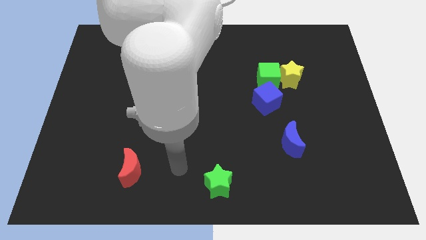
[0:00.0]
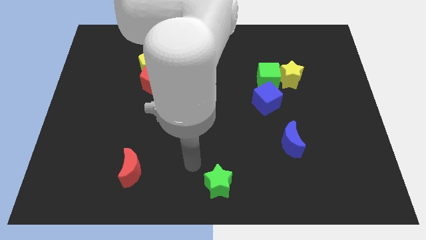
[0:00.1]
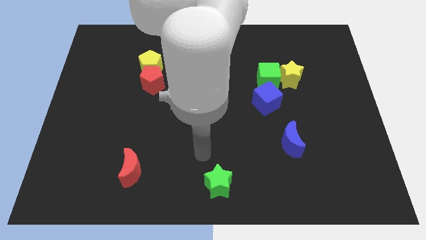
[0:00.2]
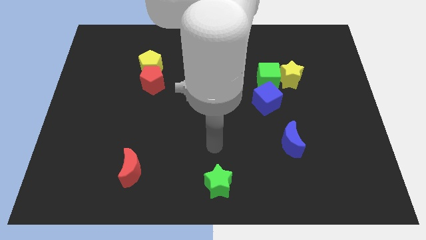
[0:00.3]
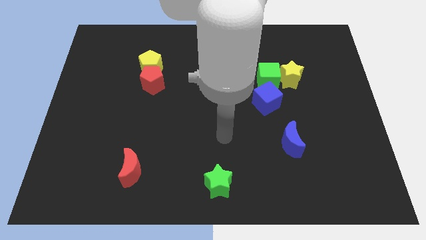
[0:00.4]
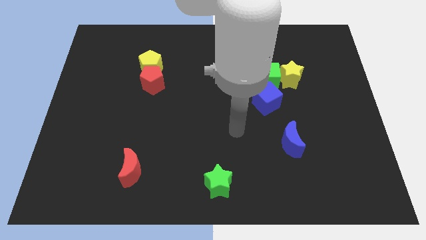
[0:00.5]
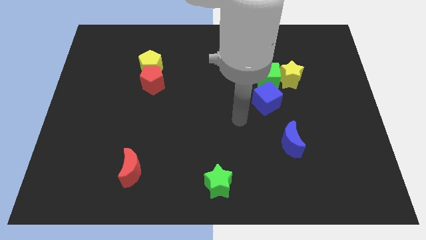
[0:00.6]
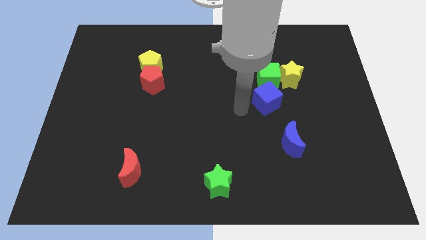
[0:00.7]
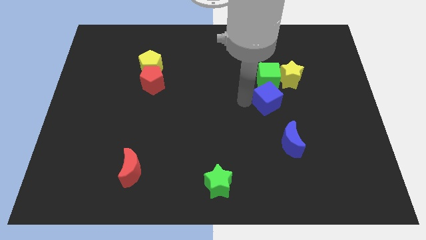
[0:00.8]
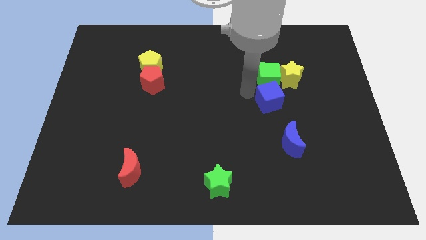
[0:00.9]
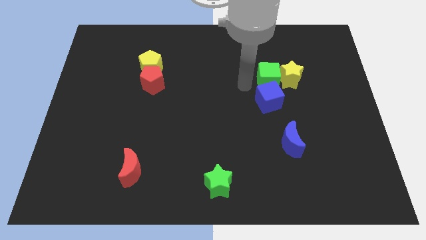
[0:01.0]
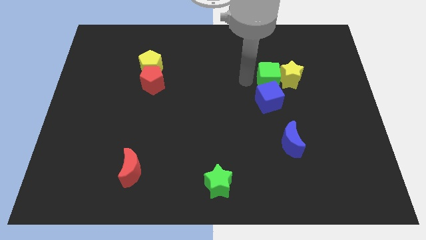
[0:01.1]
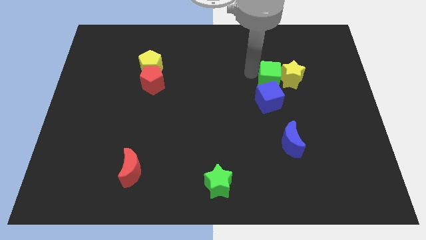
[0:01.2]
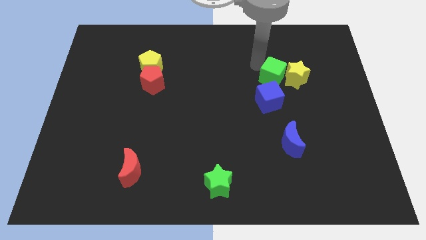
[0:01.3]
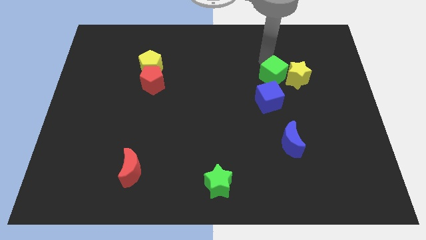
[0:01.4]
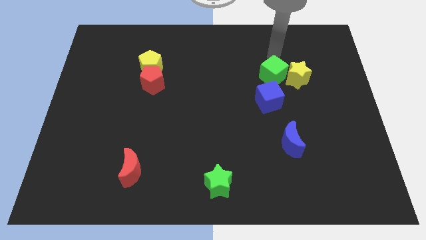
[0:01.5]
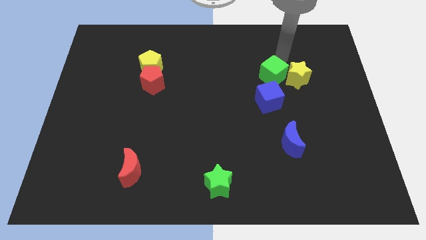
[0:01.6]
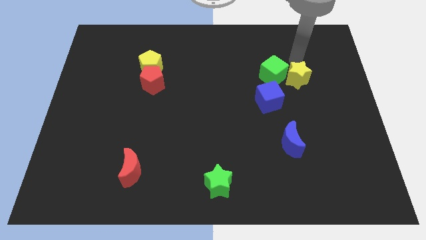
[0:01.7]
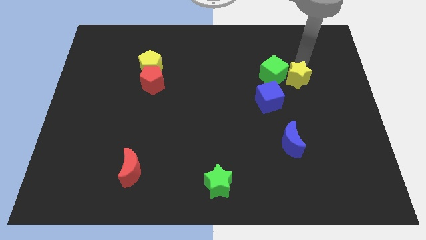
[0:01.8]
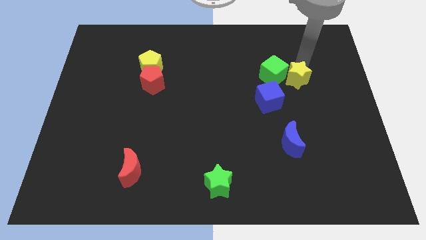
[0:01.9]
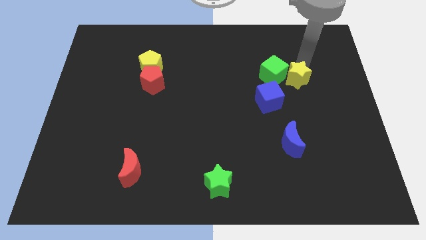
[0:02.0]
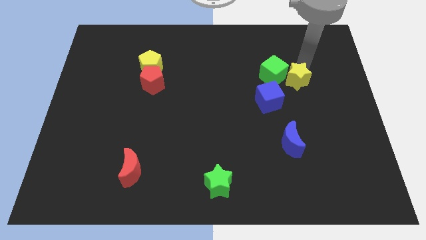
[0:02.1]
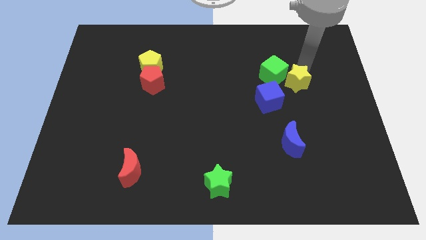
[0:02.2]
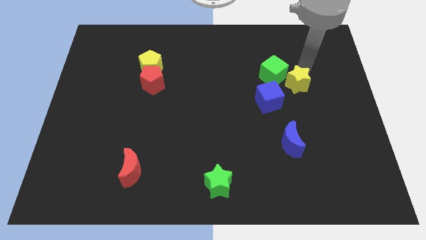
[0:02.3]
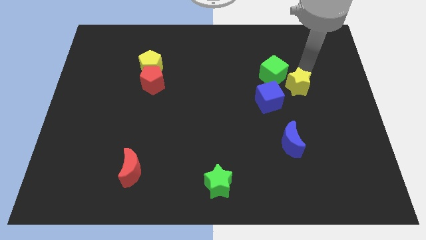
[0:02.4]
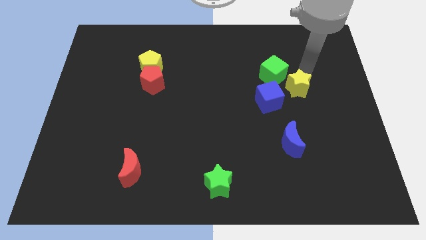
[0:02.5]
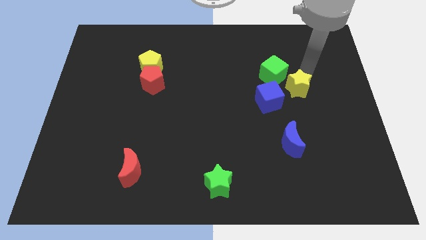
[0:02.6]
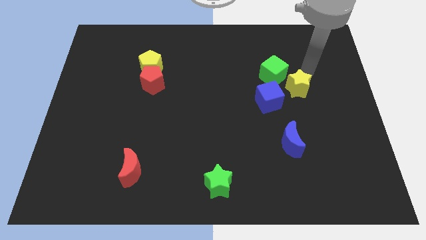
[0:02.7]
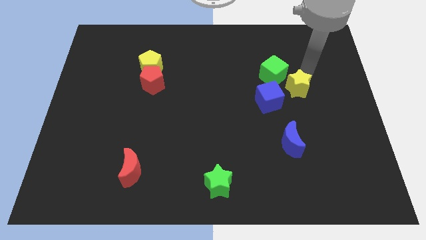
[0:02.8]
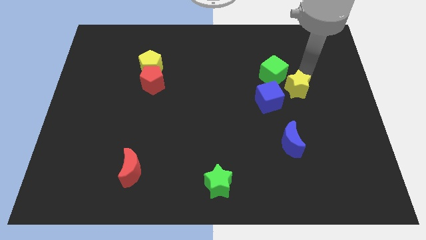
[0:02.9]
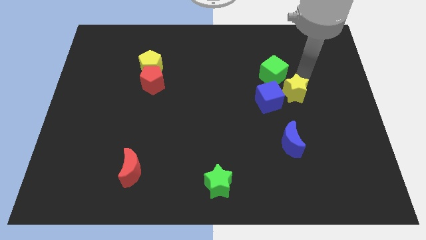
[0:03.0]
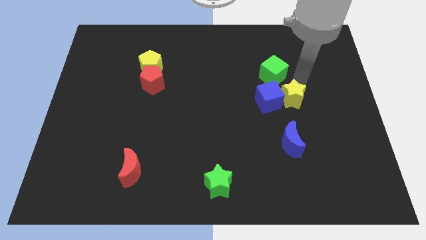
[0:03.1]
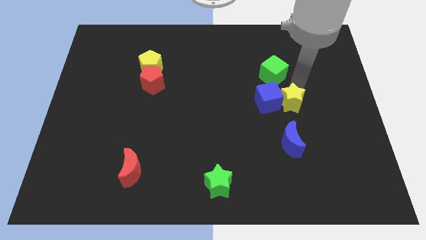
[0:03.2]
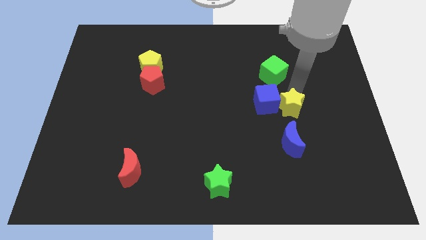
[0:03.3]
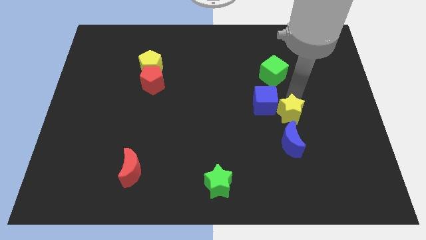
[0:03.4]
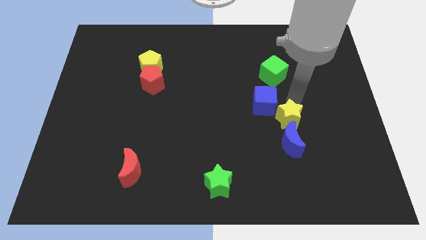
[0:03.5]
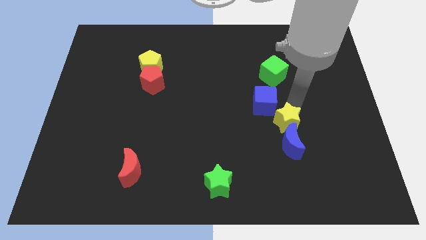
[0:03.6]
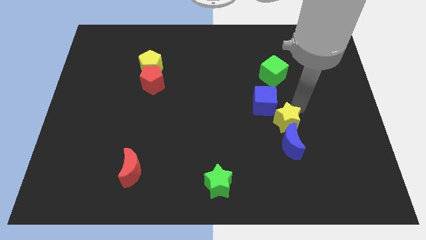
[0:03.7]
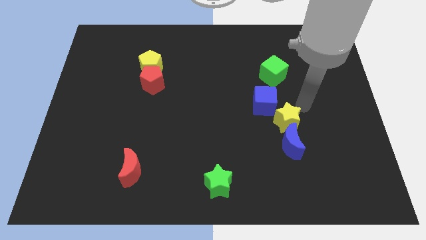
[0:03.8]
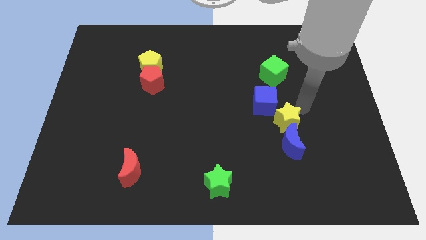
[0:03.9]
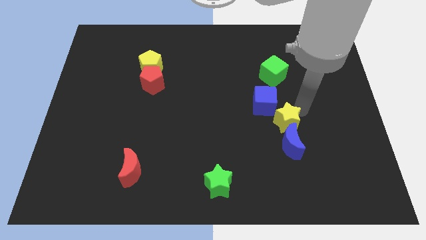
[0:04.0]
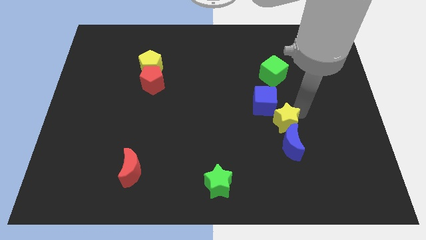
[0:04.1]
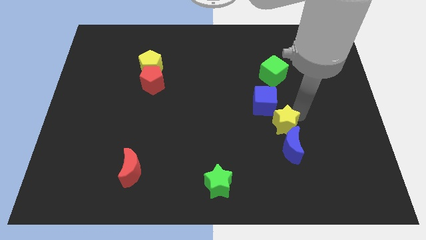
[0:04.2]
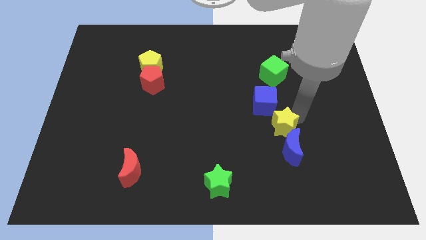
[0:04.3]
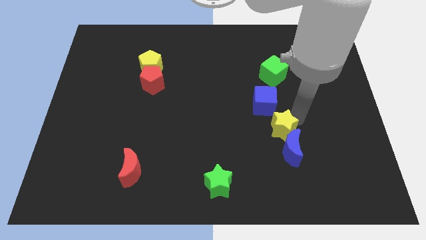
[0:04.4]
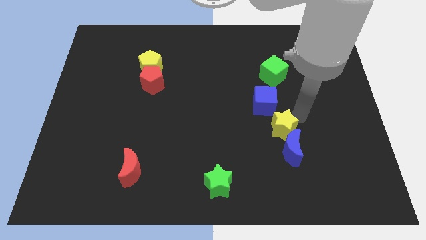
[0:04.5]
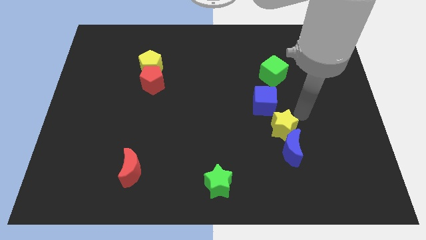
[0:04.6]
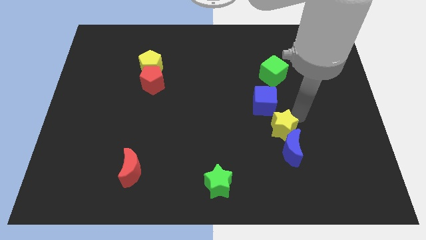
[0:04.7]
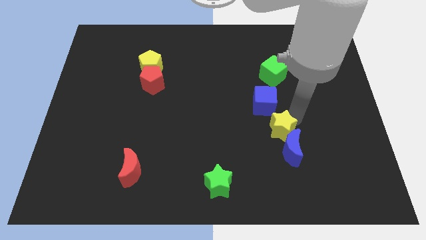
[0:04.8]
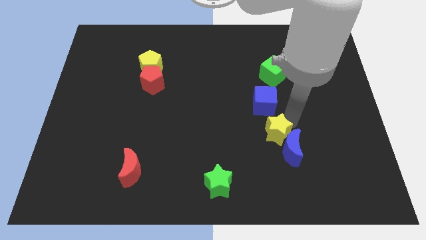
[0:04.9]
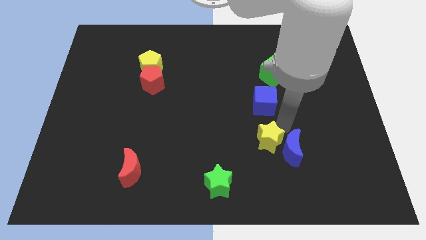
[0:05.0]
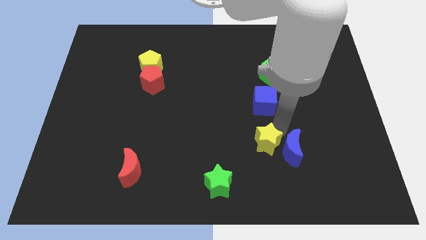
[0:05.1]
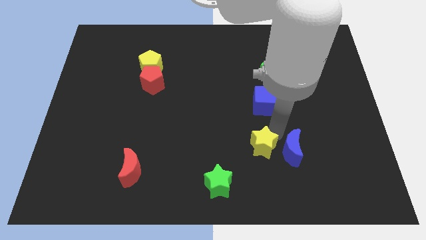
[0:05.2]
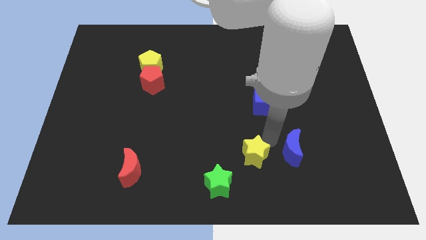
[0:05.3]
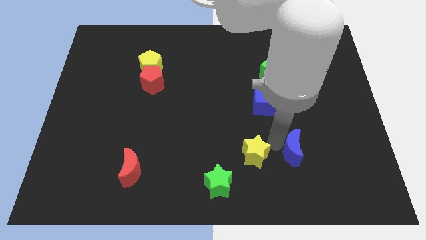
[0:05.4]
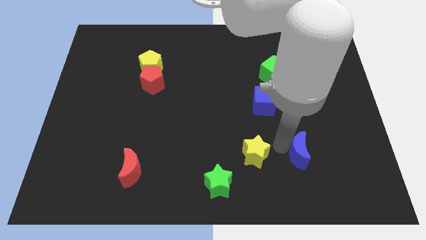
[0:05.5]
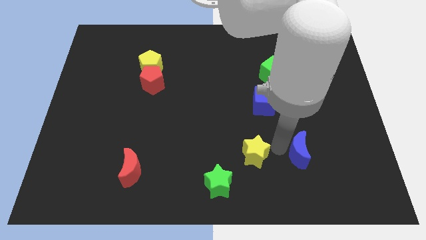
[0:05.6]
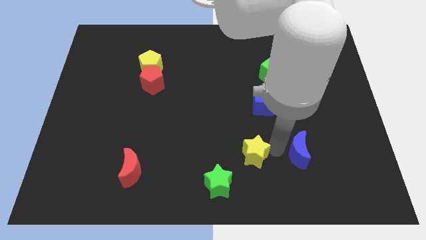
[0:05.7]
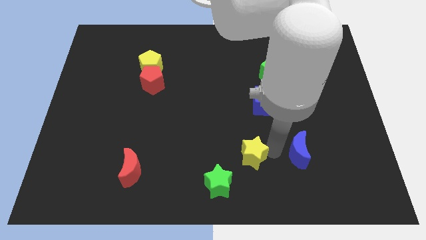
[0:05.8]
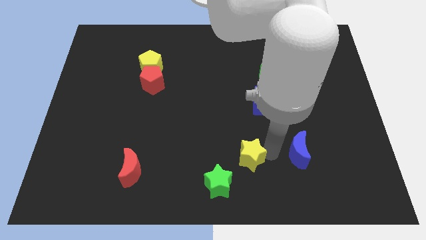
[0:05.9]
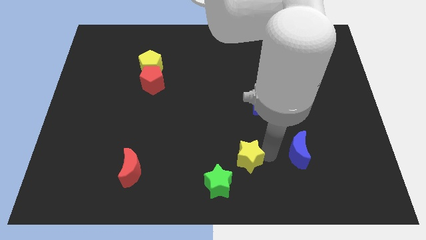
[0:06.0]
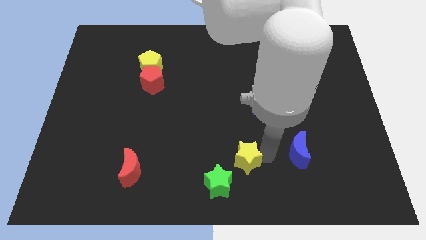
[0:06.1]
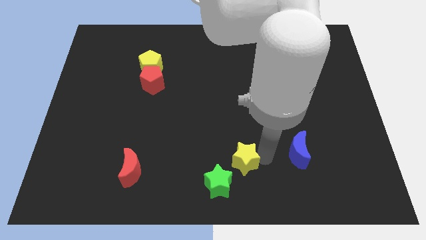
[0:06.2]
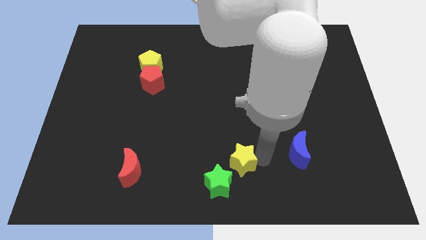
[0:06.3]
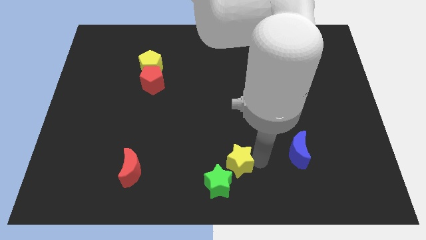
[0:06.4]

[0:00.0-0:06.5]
move the yellow star close to the green star

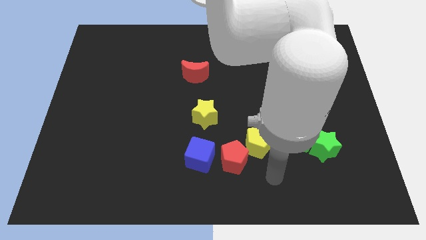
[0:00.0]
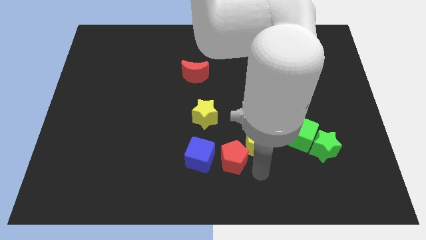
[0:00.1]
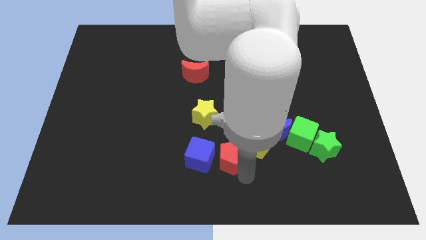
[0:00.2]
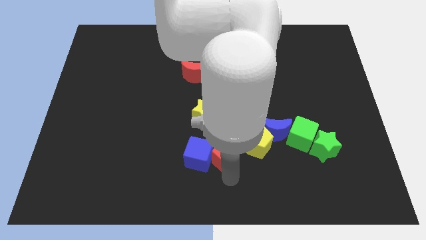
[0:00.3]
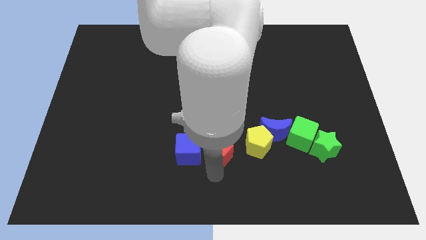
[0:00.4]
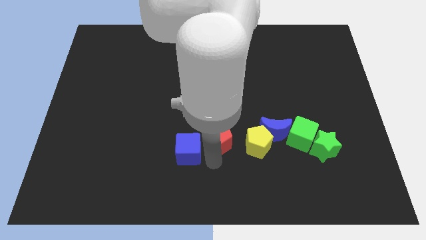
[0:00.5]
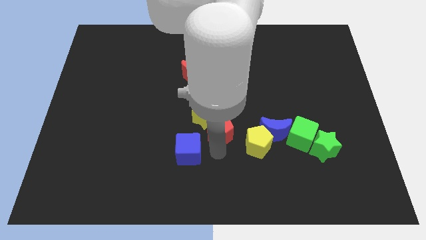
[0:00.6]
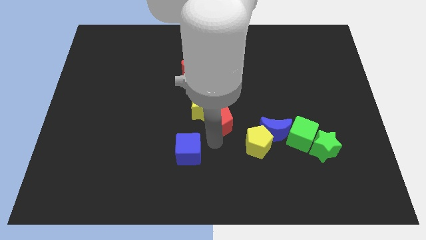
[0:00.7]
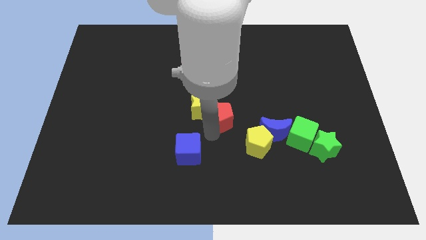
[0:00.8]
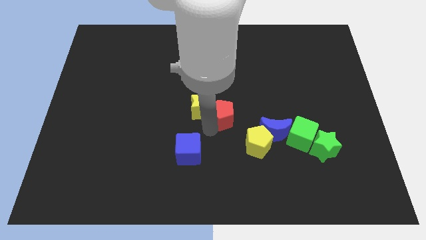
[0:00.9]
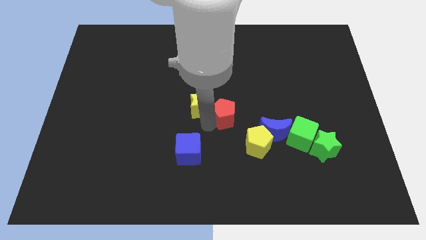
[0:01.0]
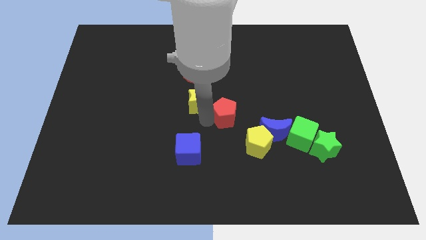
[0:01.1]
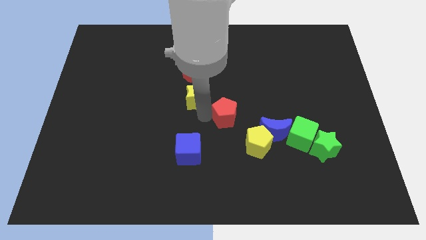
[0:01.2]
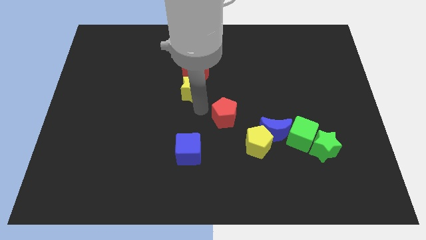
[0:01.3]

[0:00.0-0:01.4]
put the yellow star to the red moon
